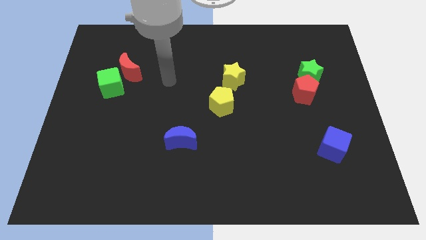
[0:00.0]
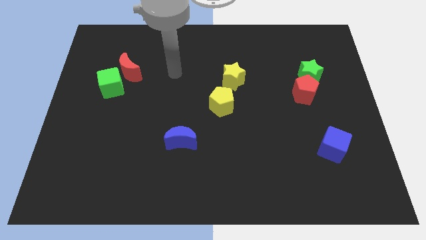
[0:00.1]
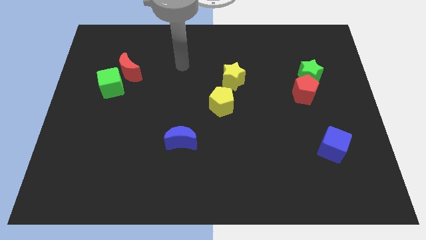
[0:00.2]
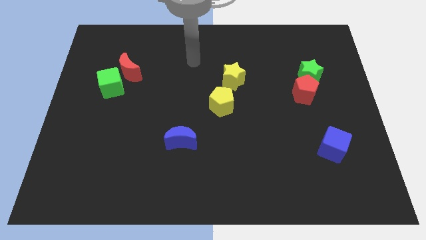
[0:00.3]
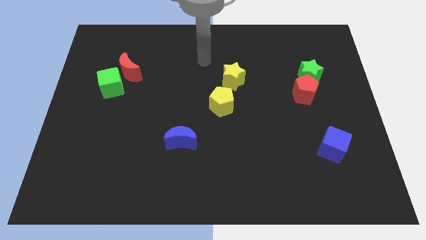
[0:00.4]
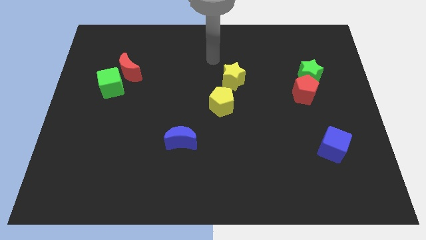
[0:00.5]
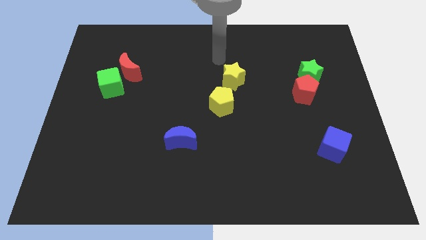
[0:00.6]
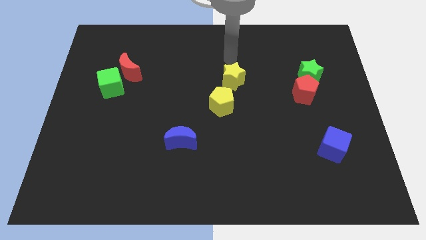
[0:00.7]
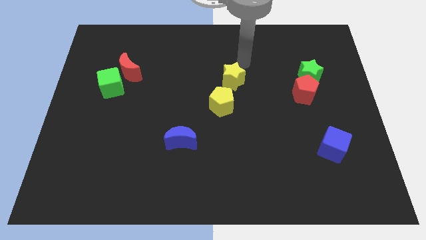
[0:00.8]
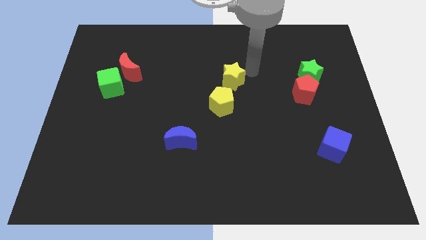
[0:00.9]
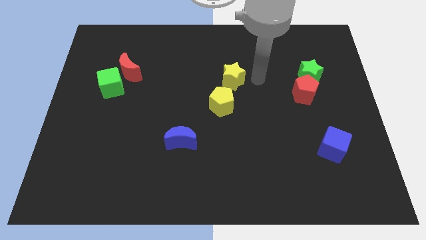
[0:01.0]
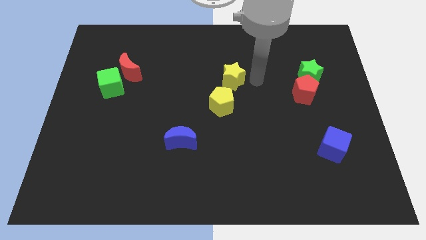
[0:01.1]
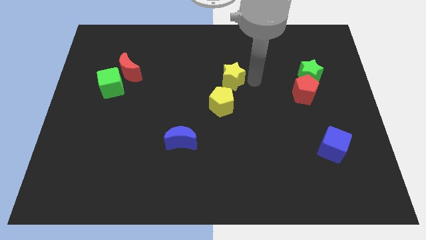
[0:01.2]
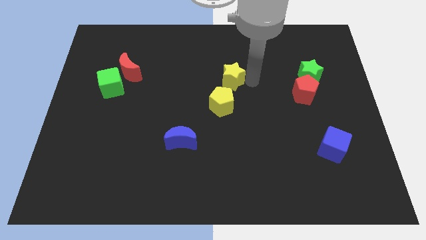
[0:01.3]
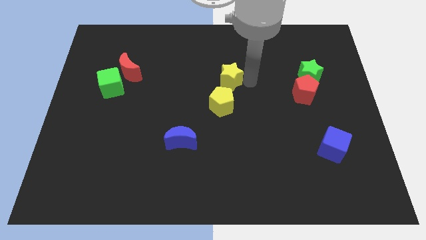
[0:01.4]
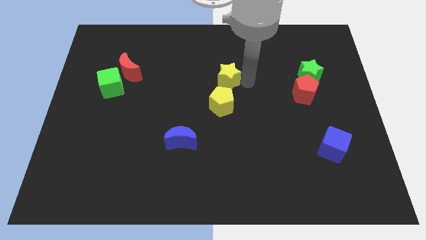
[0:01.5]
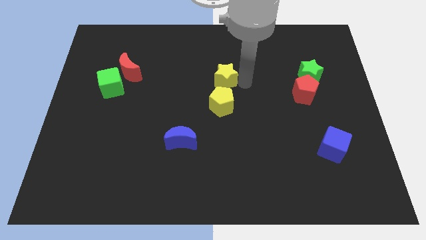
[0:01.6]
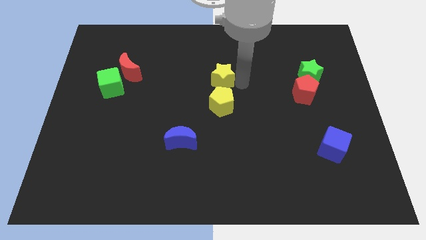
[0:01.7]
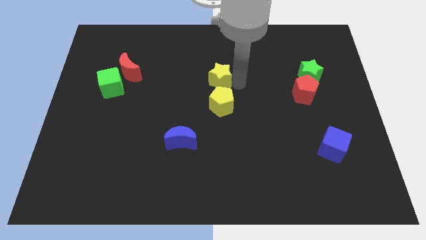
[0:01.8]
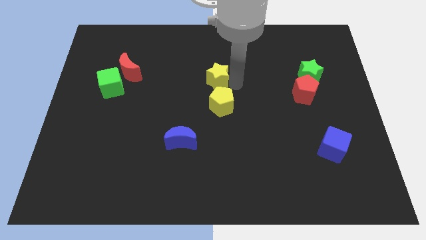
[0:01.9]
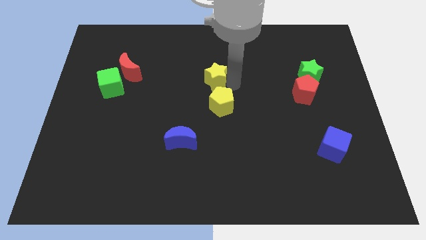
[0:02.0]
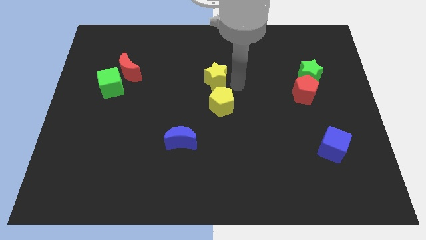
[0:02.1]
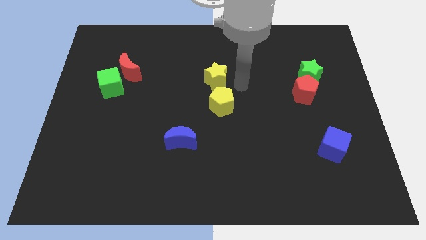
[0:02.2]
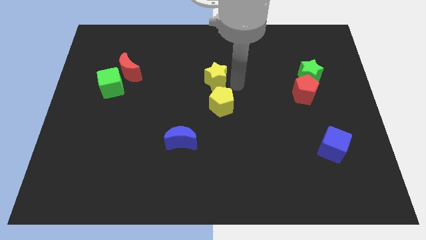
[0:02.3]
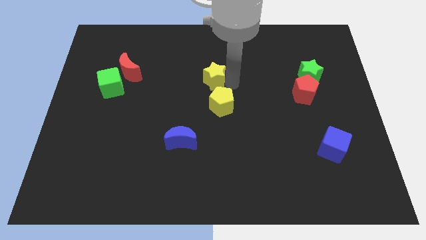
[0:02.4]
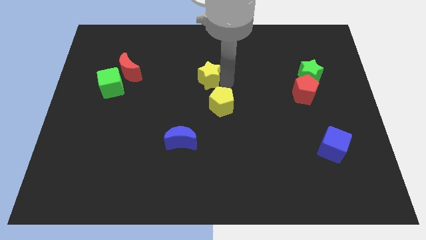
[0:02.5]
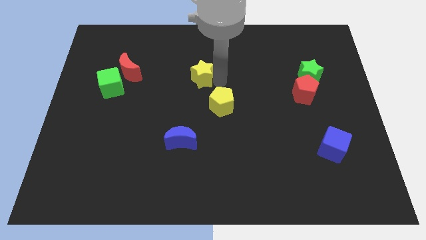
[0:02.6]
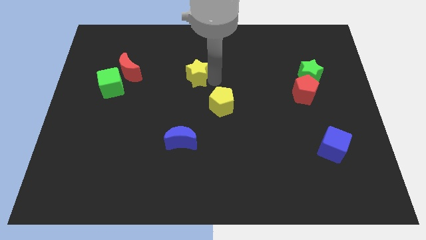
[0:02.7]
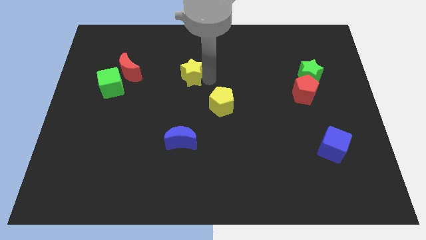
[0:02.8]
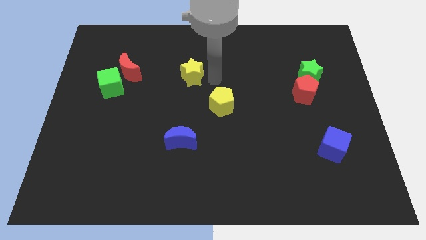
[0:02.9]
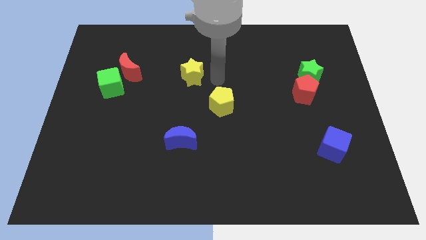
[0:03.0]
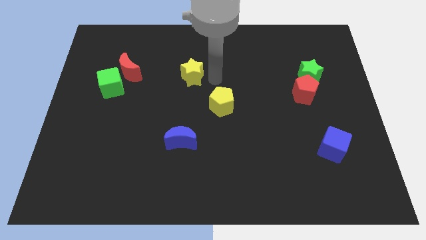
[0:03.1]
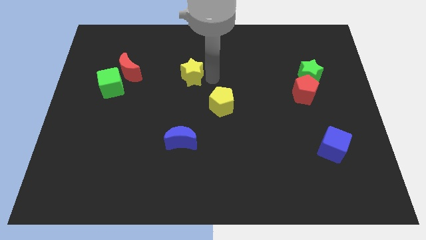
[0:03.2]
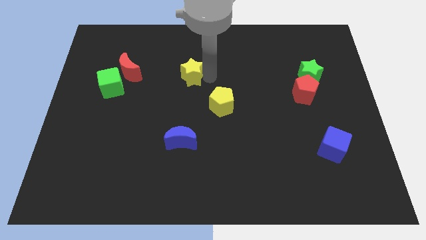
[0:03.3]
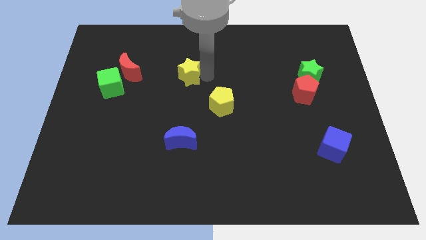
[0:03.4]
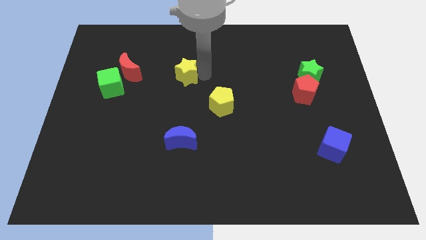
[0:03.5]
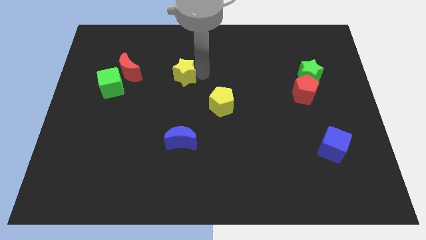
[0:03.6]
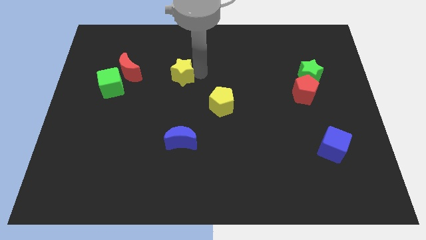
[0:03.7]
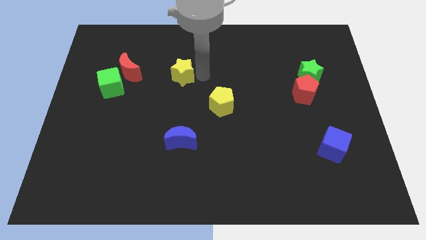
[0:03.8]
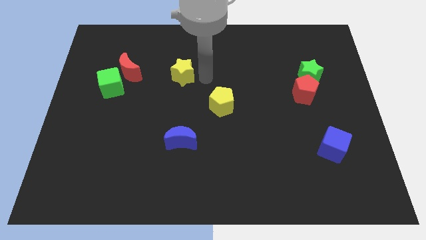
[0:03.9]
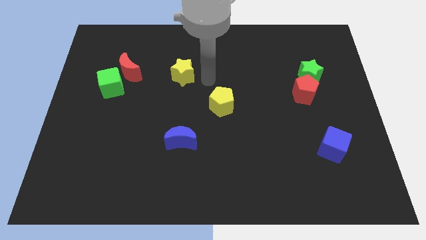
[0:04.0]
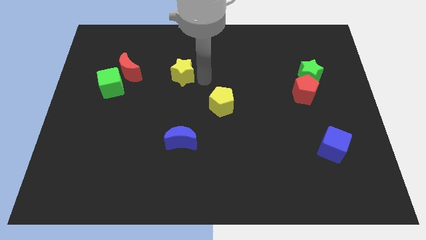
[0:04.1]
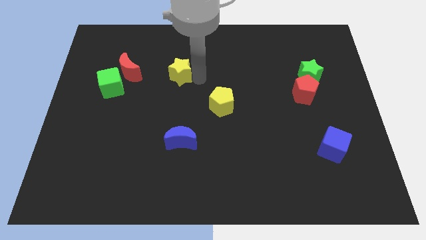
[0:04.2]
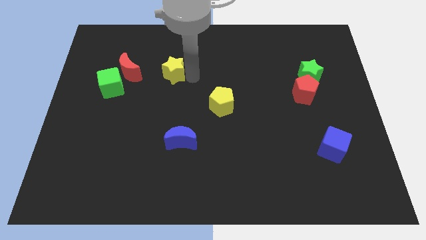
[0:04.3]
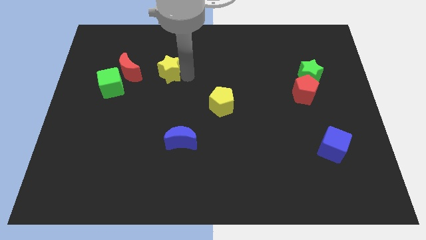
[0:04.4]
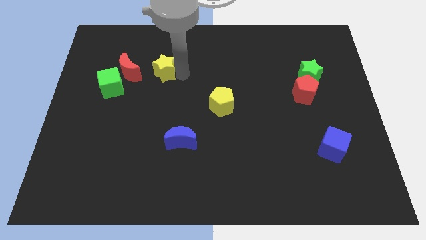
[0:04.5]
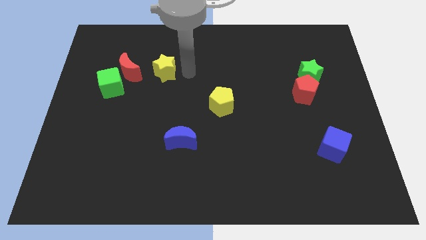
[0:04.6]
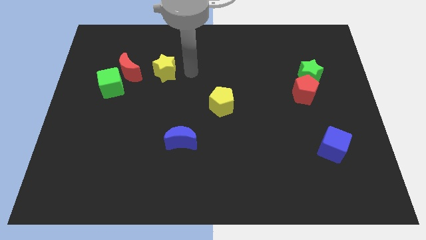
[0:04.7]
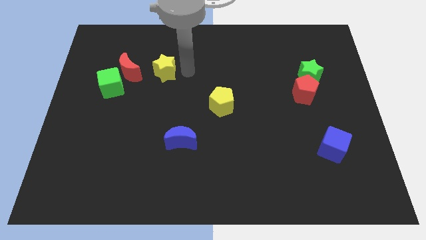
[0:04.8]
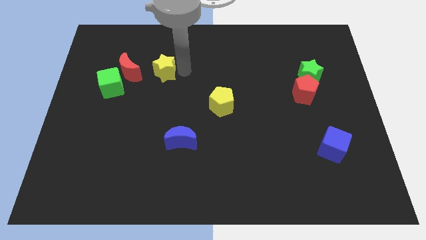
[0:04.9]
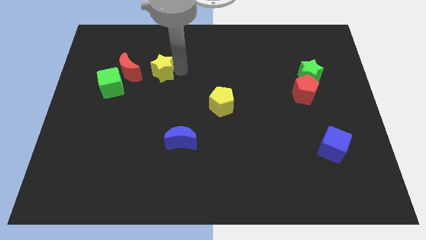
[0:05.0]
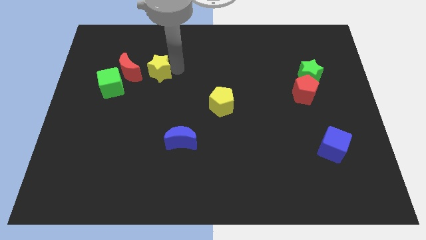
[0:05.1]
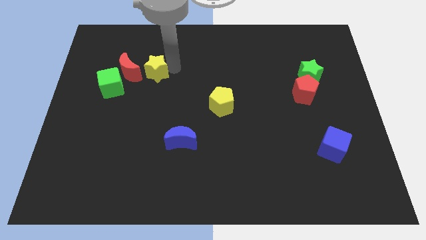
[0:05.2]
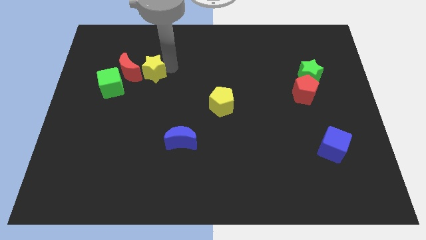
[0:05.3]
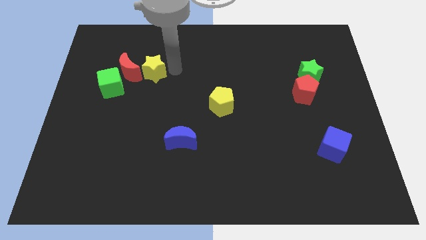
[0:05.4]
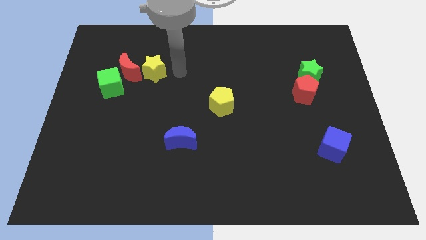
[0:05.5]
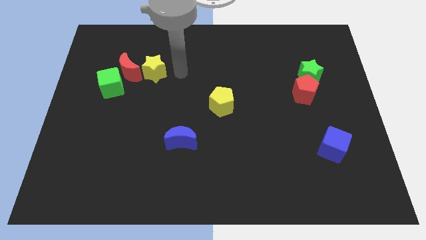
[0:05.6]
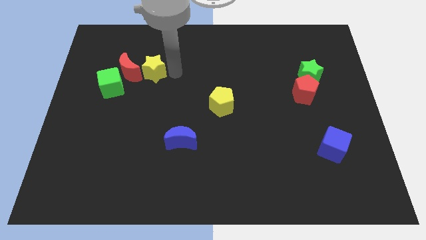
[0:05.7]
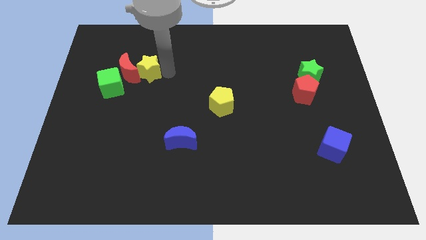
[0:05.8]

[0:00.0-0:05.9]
move the yellow star towards the red moon

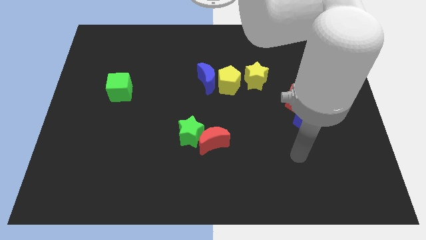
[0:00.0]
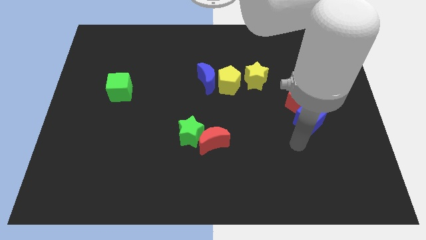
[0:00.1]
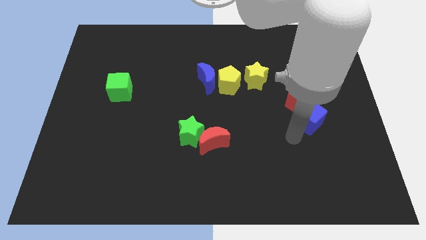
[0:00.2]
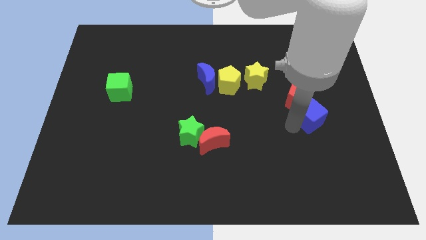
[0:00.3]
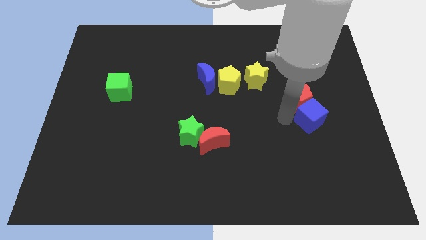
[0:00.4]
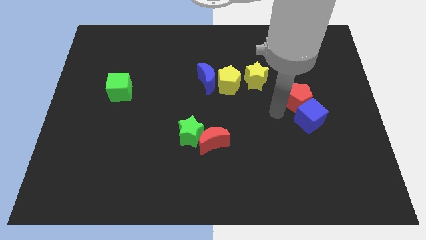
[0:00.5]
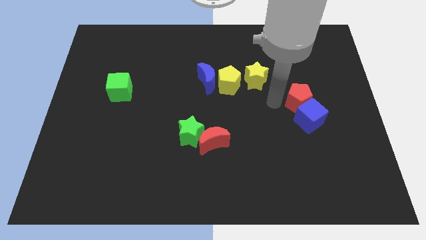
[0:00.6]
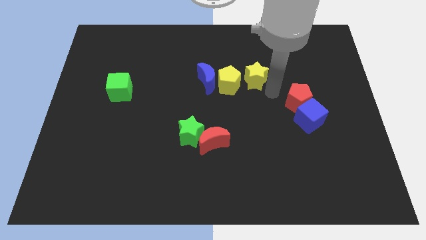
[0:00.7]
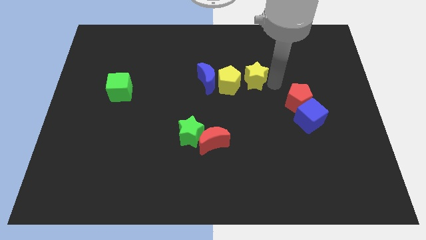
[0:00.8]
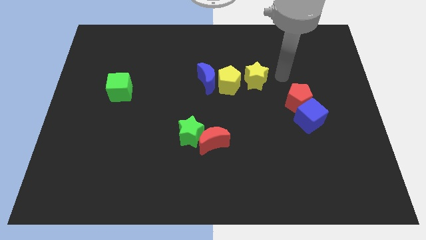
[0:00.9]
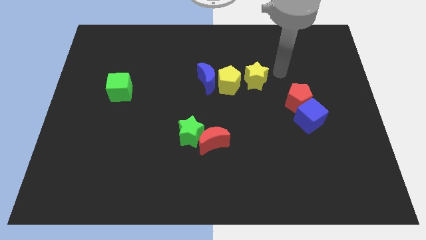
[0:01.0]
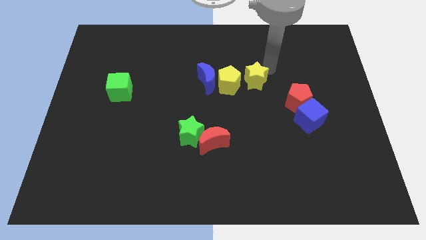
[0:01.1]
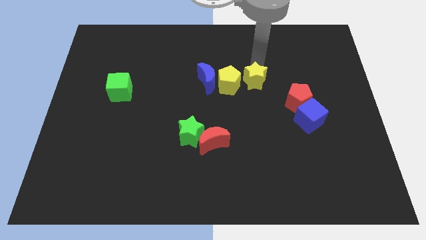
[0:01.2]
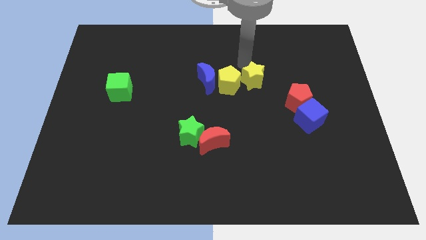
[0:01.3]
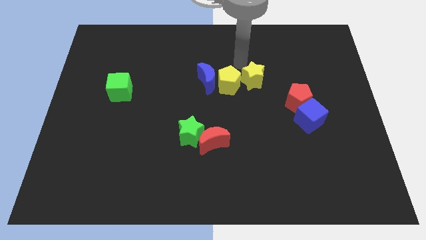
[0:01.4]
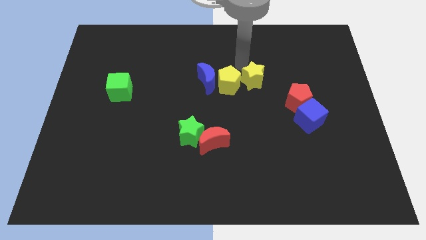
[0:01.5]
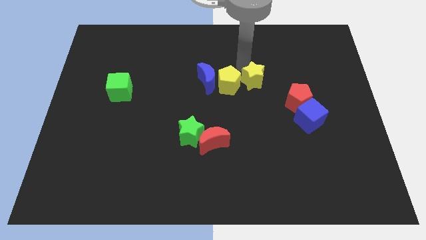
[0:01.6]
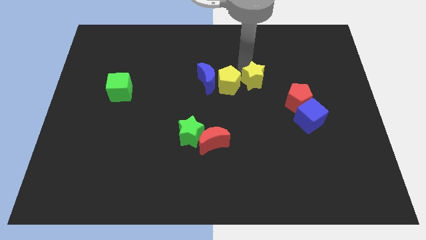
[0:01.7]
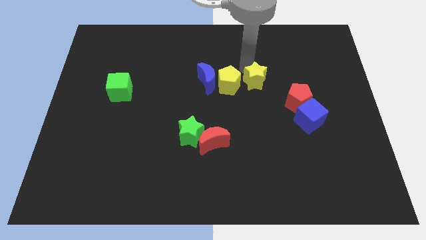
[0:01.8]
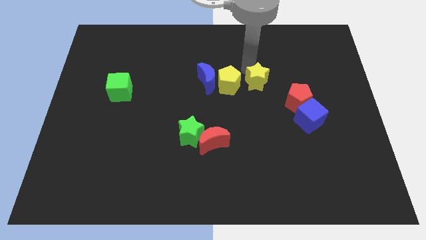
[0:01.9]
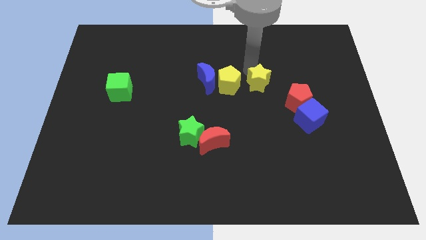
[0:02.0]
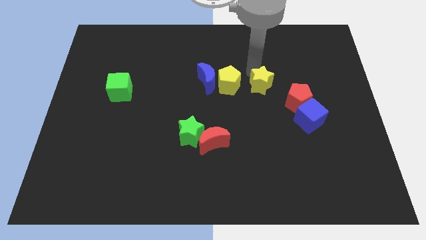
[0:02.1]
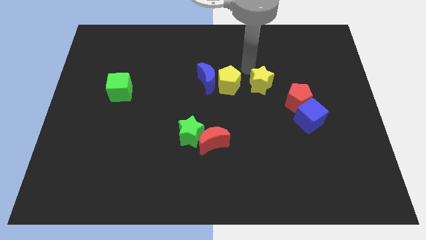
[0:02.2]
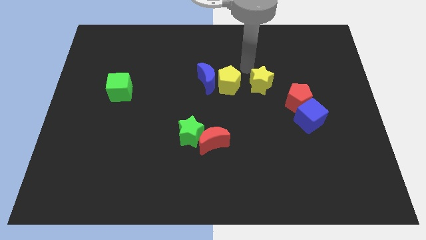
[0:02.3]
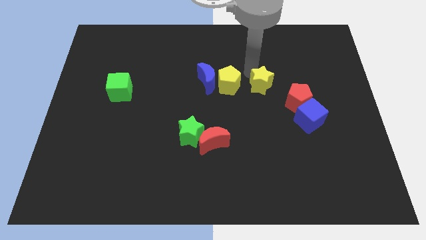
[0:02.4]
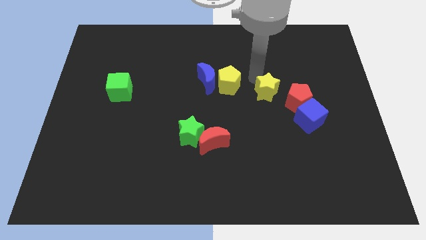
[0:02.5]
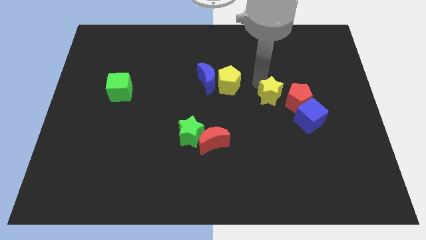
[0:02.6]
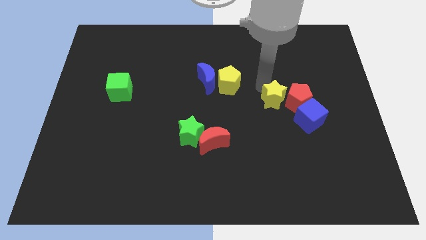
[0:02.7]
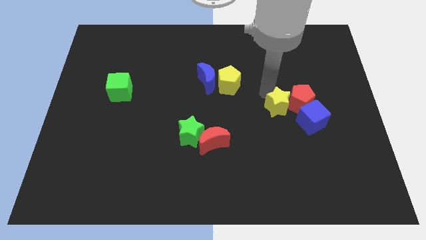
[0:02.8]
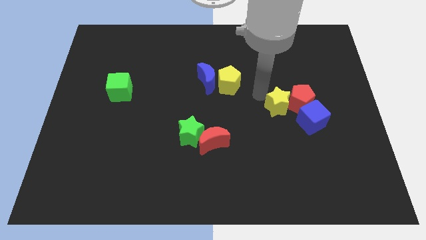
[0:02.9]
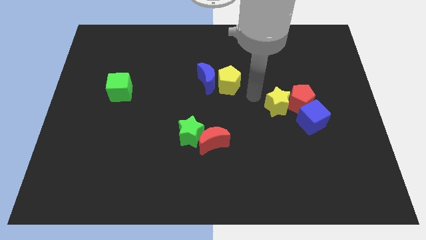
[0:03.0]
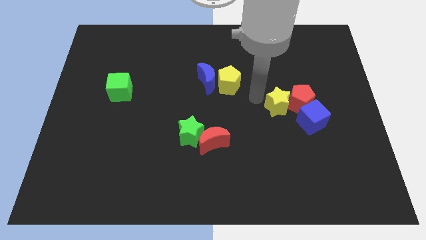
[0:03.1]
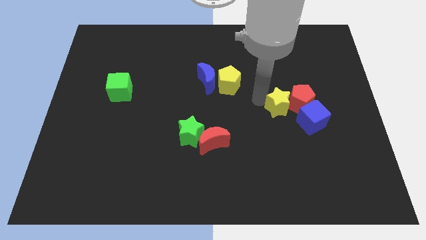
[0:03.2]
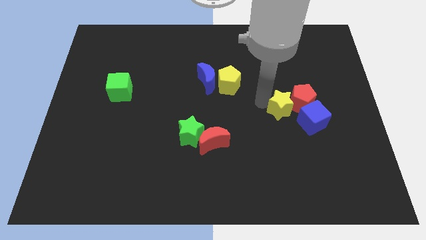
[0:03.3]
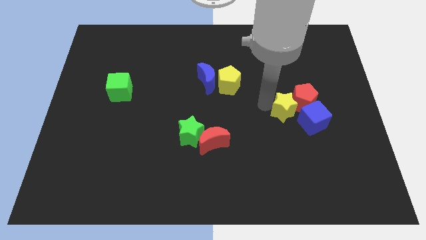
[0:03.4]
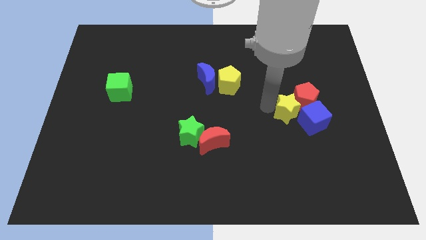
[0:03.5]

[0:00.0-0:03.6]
move the yellow star towards the blue cube
